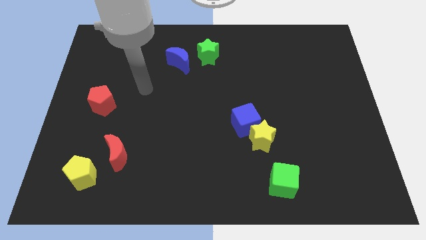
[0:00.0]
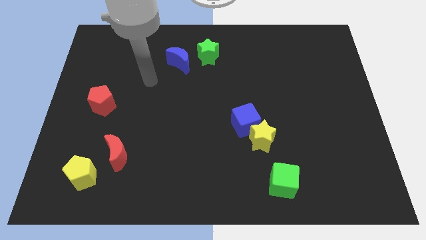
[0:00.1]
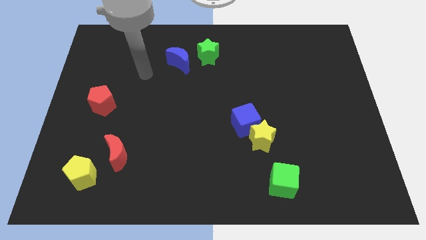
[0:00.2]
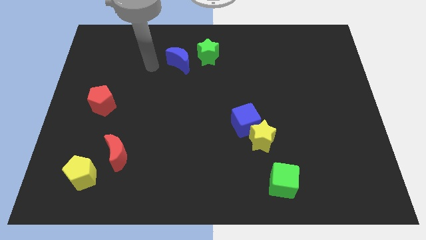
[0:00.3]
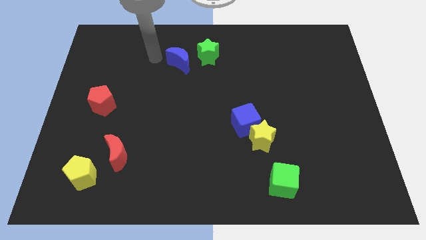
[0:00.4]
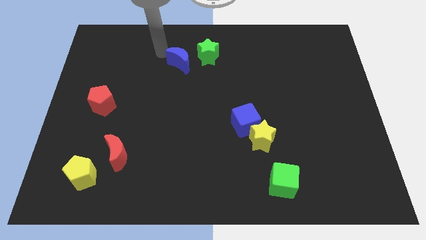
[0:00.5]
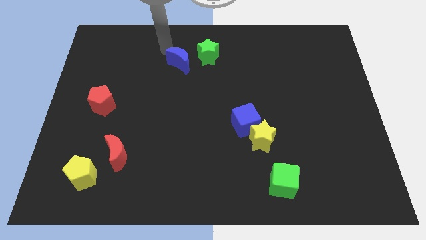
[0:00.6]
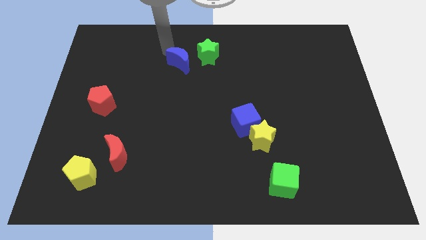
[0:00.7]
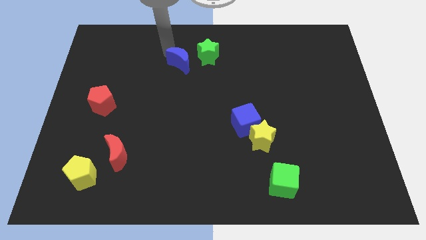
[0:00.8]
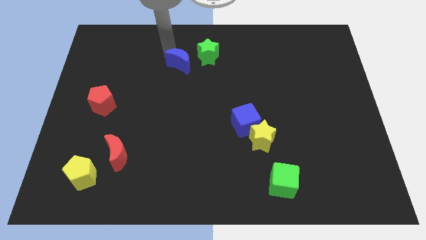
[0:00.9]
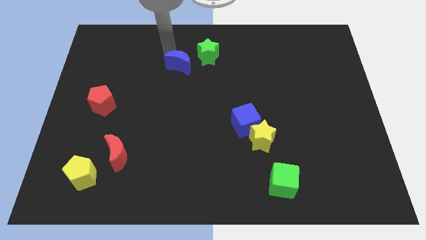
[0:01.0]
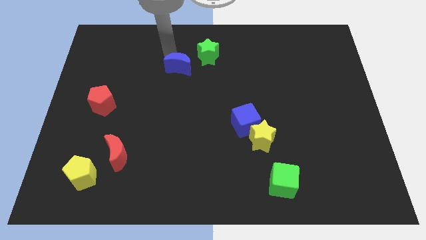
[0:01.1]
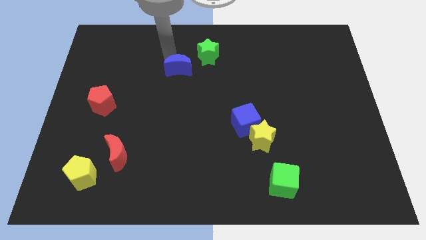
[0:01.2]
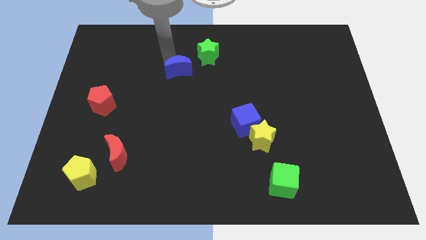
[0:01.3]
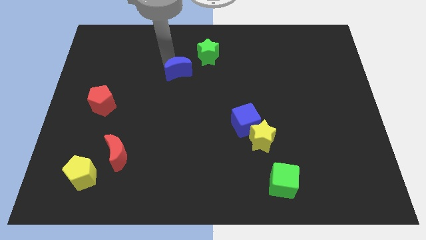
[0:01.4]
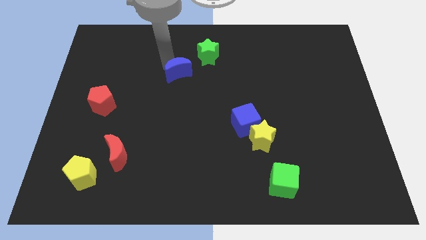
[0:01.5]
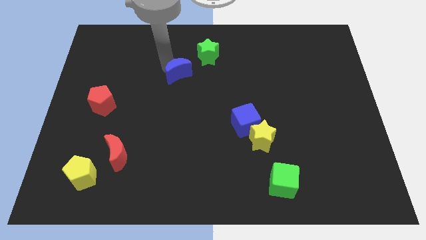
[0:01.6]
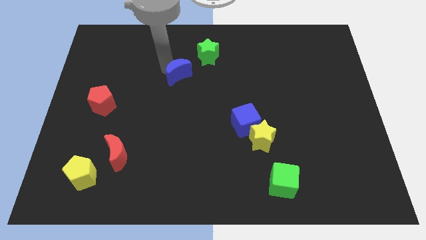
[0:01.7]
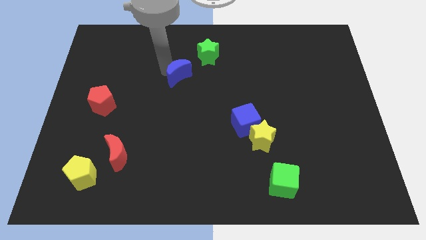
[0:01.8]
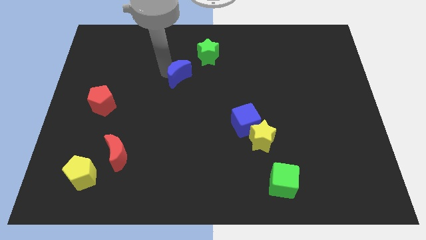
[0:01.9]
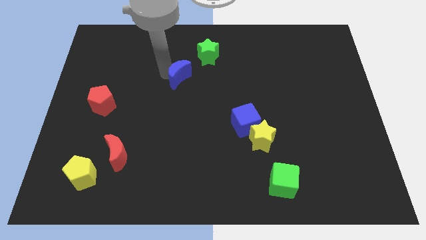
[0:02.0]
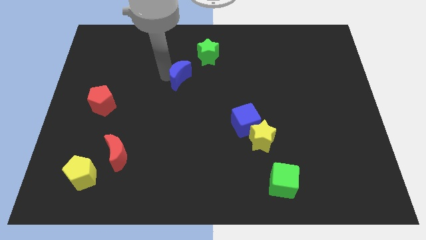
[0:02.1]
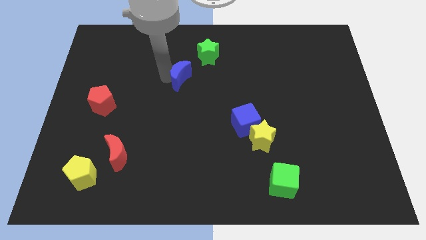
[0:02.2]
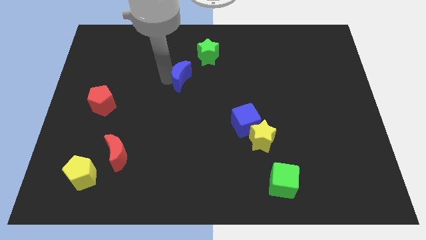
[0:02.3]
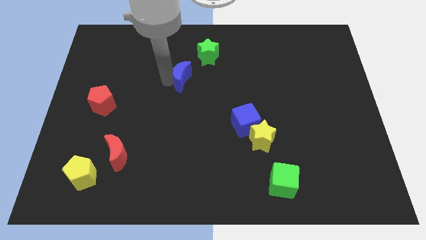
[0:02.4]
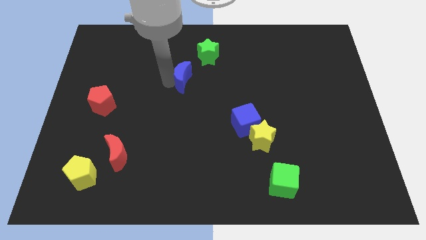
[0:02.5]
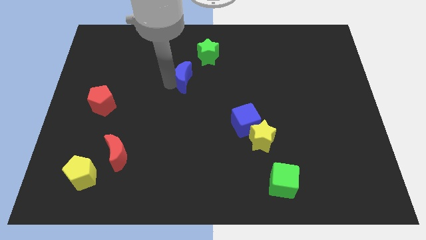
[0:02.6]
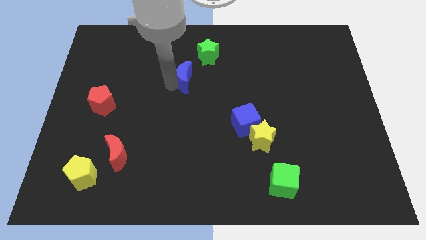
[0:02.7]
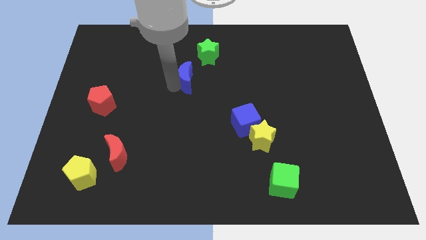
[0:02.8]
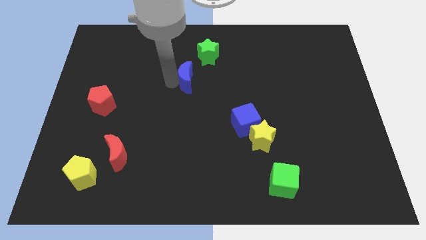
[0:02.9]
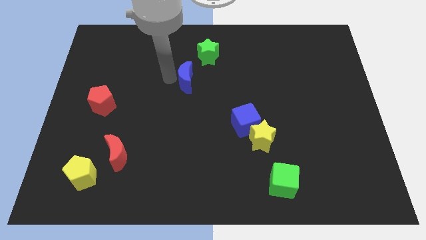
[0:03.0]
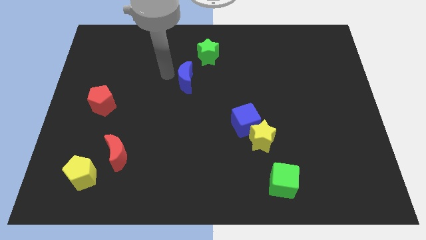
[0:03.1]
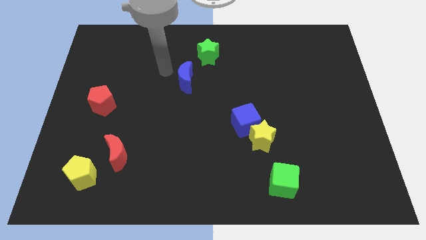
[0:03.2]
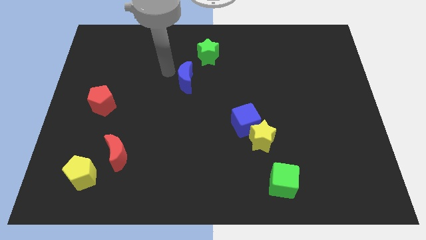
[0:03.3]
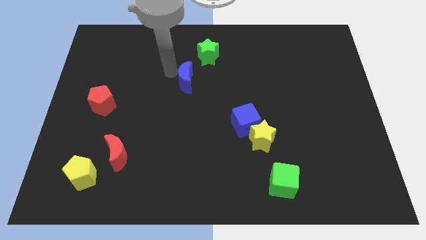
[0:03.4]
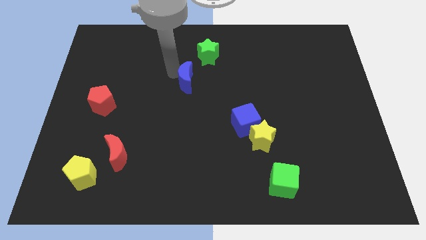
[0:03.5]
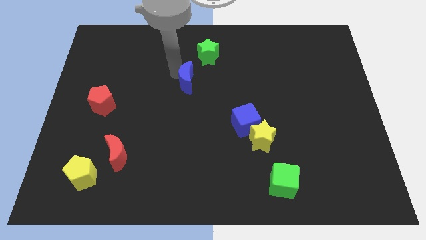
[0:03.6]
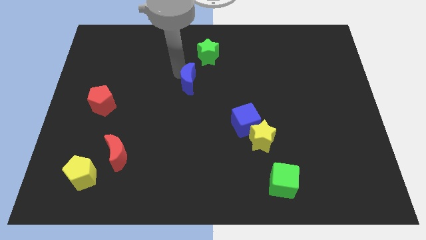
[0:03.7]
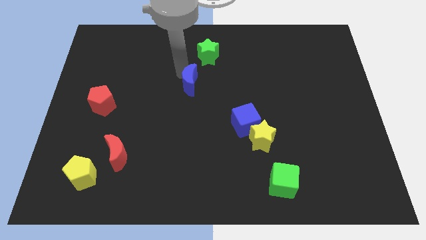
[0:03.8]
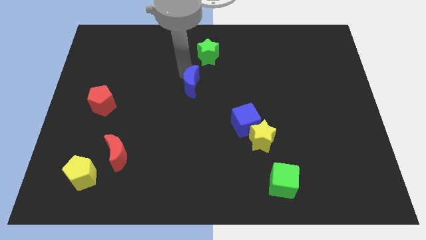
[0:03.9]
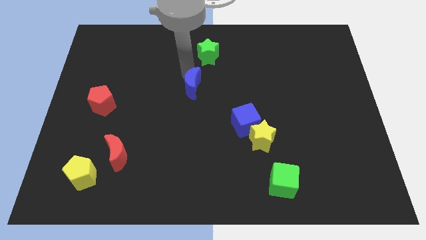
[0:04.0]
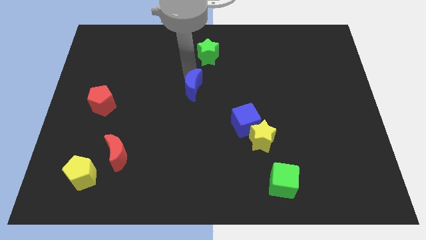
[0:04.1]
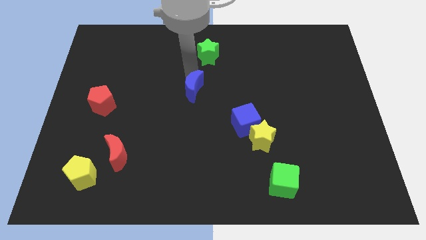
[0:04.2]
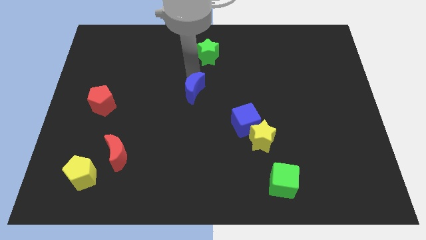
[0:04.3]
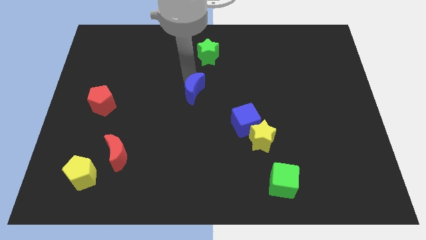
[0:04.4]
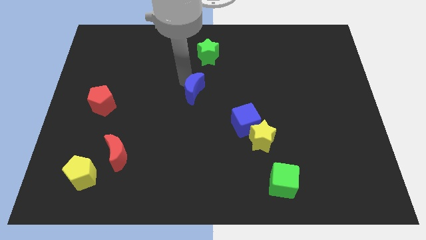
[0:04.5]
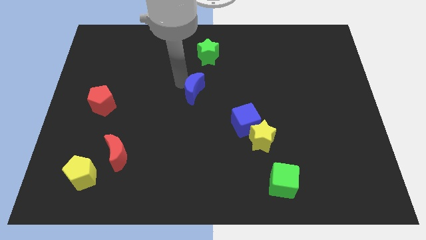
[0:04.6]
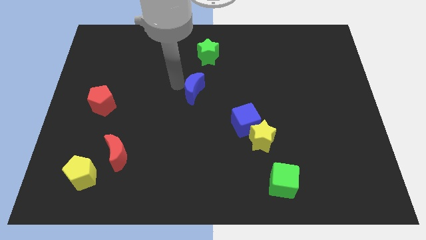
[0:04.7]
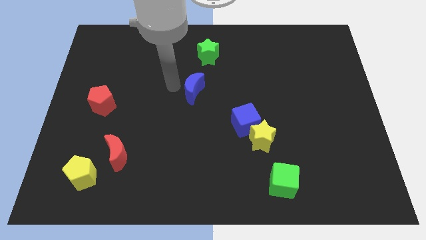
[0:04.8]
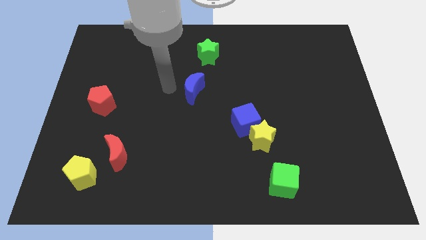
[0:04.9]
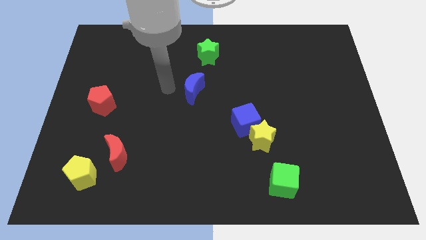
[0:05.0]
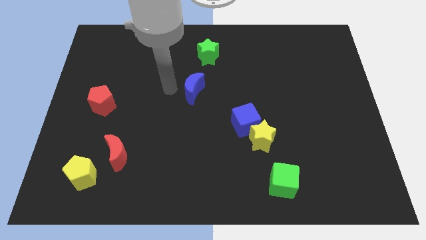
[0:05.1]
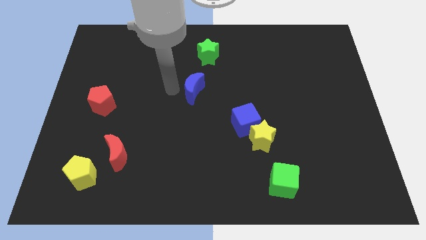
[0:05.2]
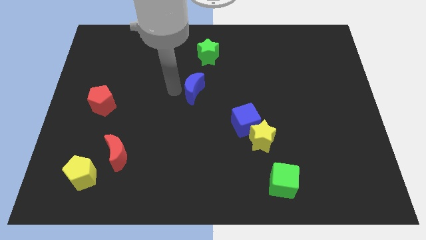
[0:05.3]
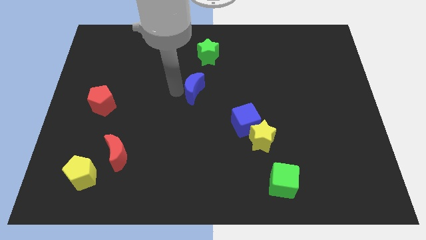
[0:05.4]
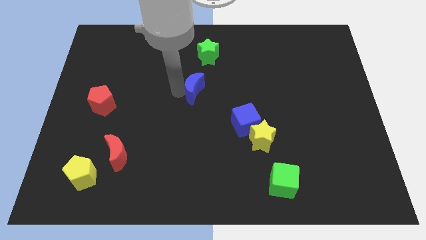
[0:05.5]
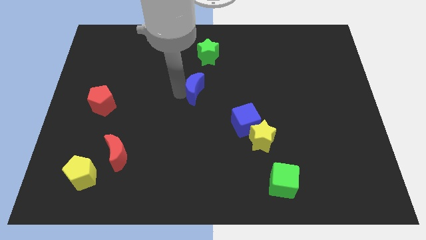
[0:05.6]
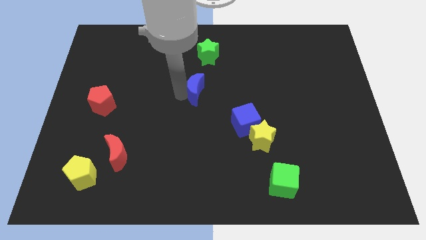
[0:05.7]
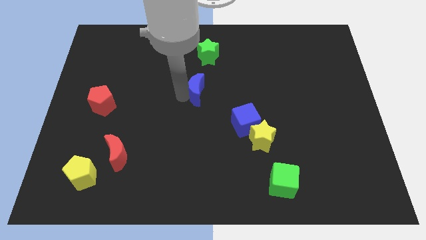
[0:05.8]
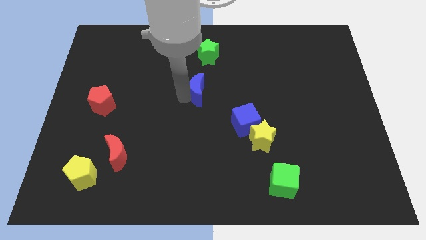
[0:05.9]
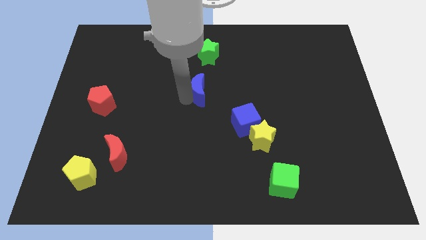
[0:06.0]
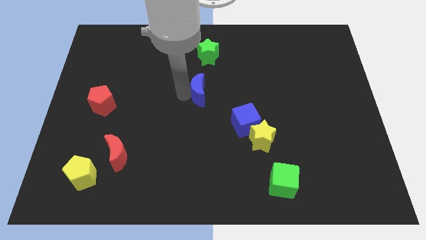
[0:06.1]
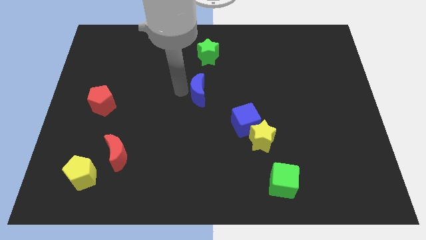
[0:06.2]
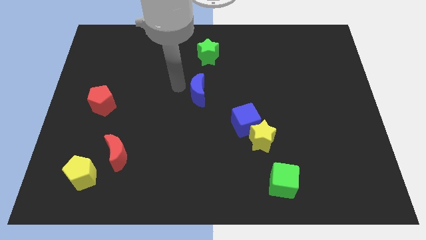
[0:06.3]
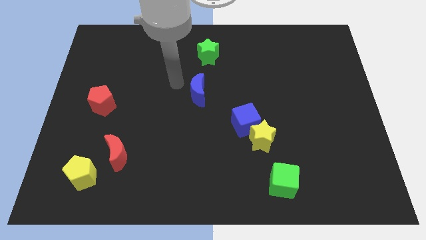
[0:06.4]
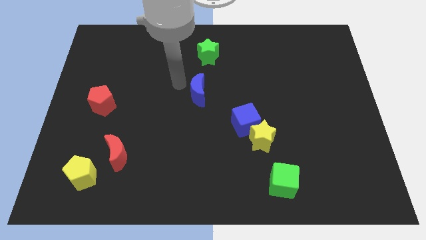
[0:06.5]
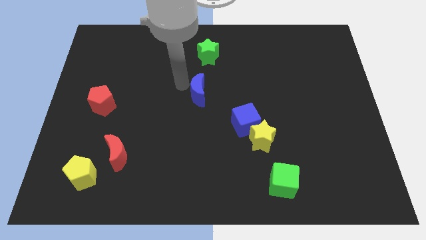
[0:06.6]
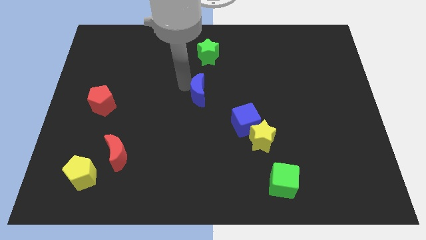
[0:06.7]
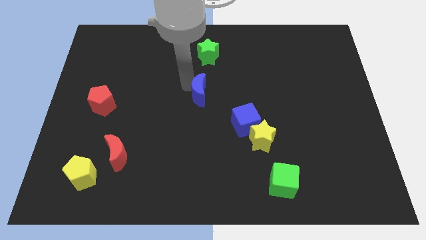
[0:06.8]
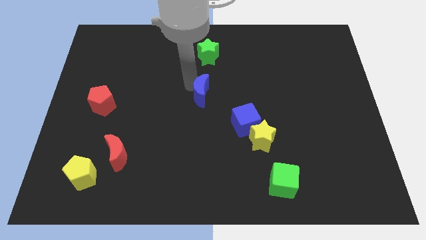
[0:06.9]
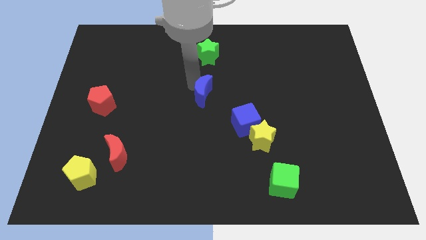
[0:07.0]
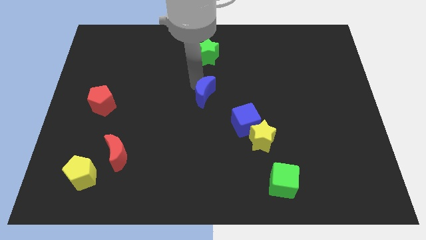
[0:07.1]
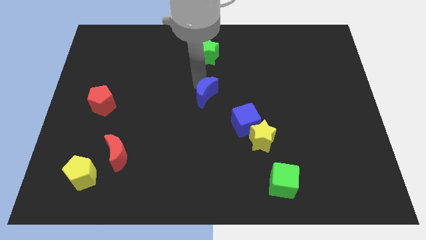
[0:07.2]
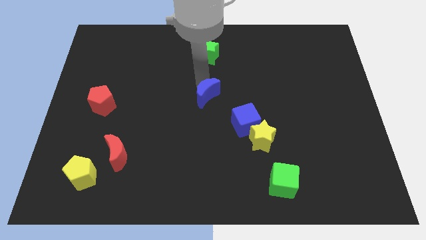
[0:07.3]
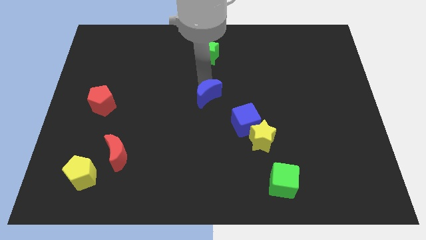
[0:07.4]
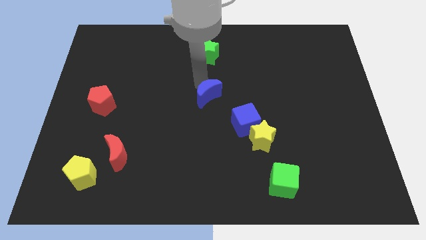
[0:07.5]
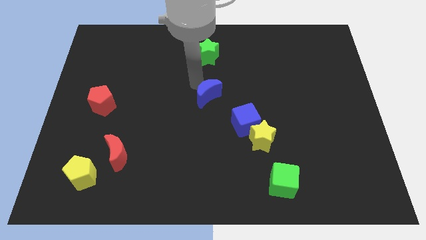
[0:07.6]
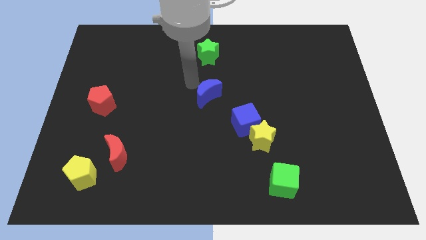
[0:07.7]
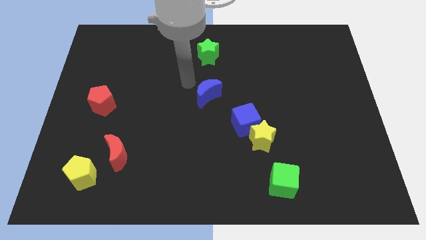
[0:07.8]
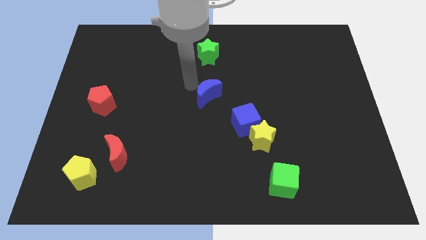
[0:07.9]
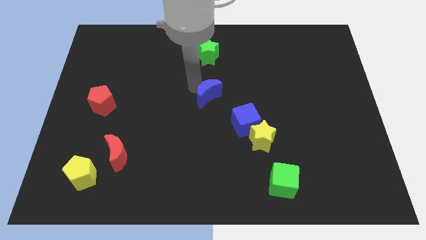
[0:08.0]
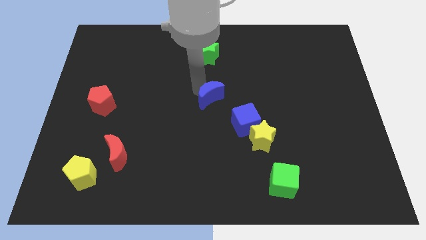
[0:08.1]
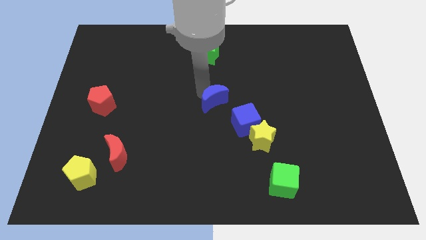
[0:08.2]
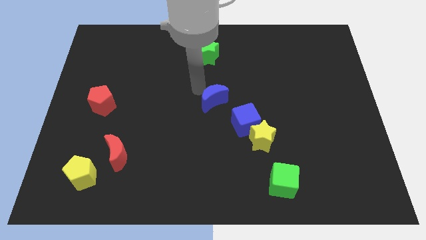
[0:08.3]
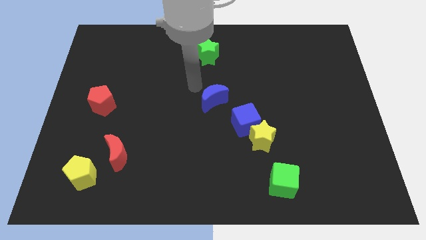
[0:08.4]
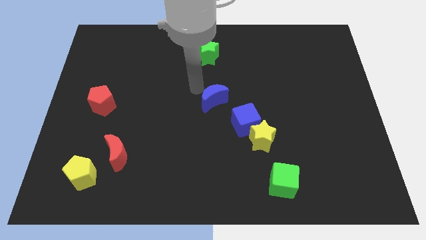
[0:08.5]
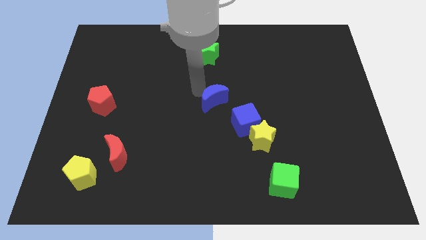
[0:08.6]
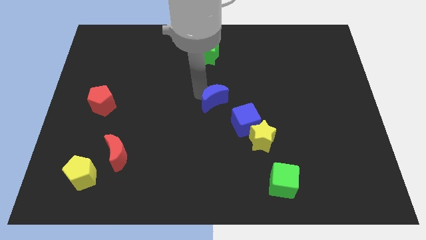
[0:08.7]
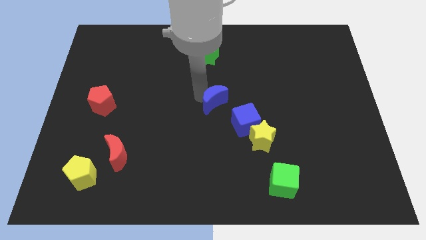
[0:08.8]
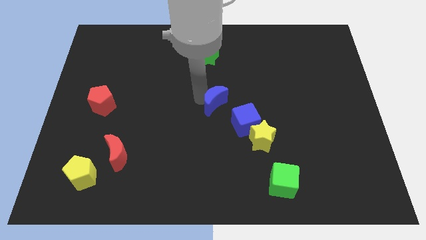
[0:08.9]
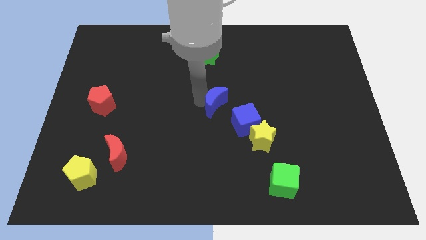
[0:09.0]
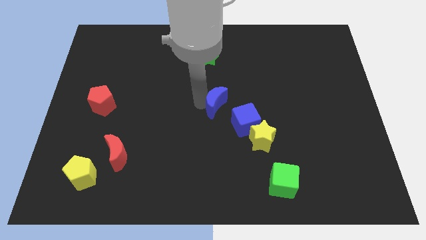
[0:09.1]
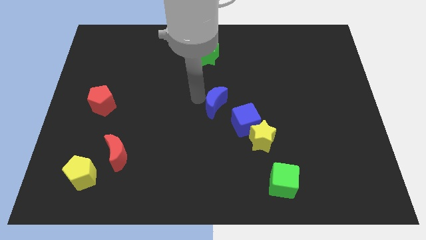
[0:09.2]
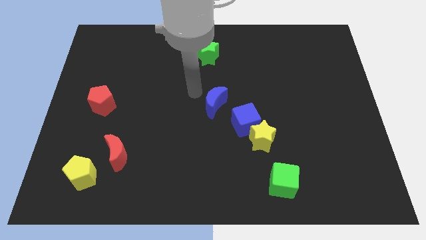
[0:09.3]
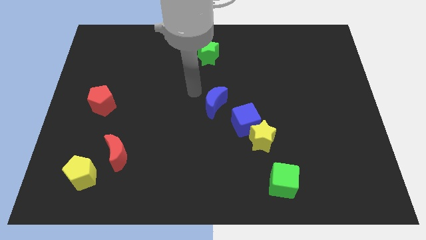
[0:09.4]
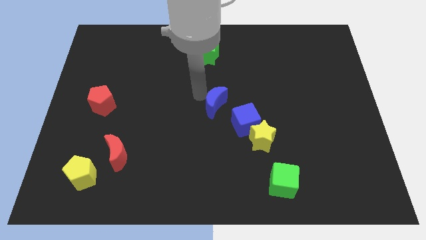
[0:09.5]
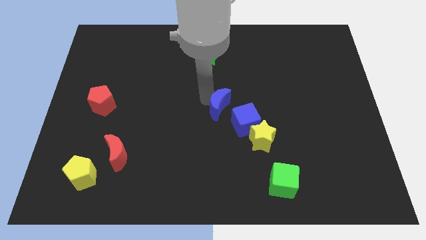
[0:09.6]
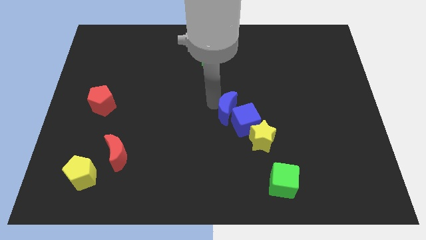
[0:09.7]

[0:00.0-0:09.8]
push the blue moon towards the blue cube
